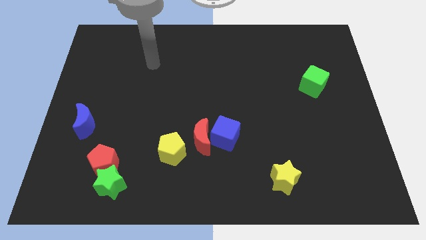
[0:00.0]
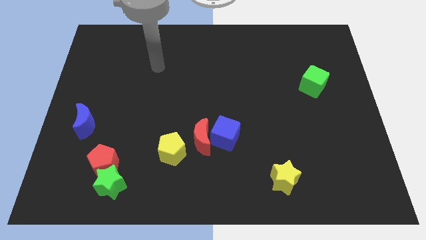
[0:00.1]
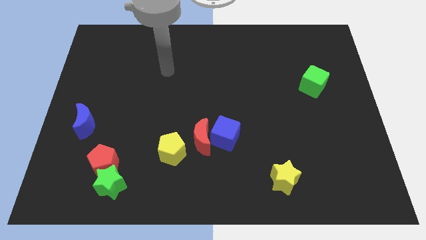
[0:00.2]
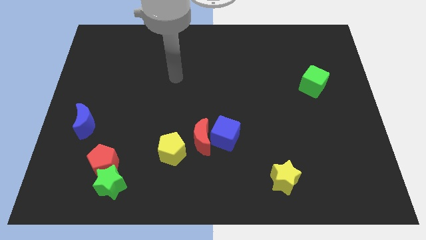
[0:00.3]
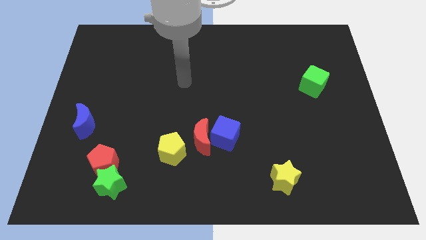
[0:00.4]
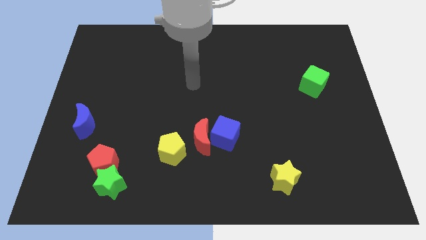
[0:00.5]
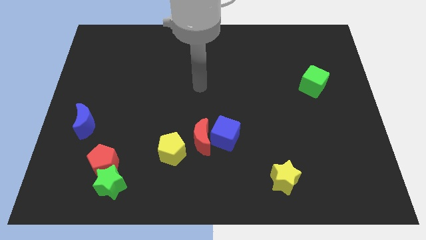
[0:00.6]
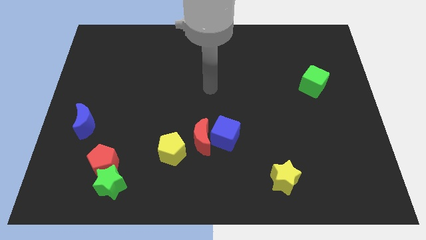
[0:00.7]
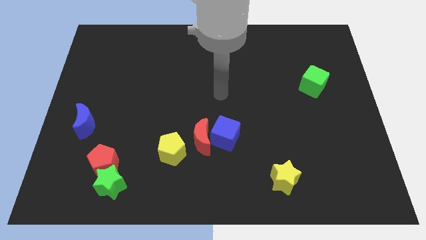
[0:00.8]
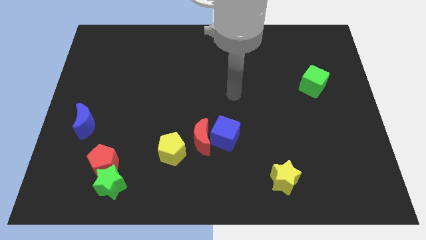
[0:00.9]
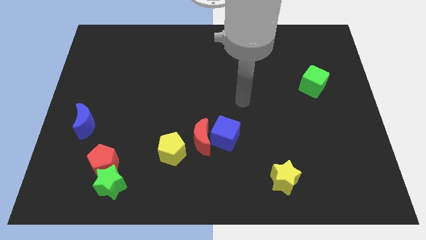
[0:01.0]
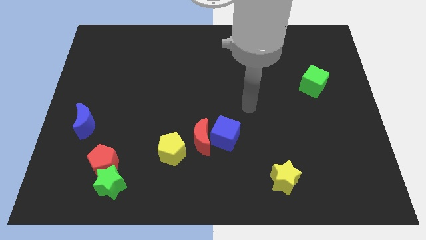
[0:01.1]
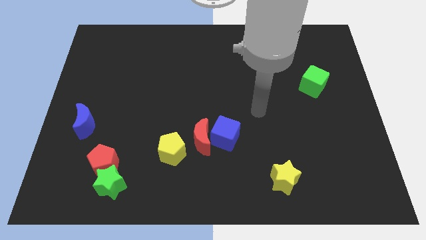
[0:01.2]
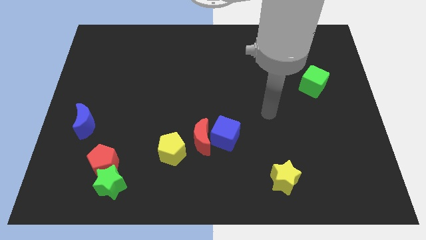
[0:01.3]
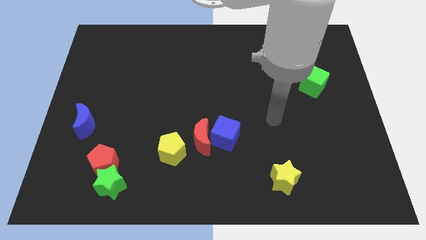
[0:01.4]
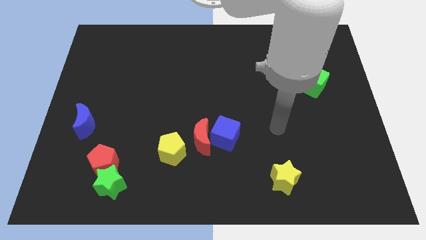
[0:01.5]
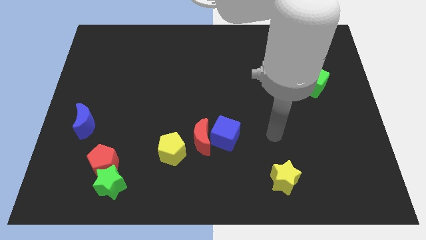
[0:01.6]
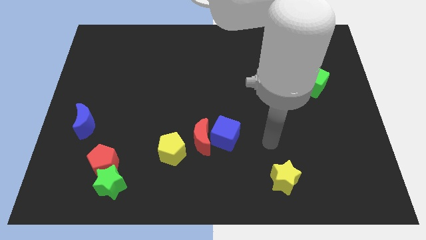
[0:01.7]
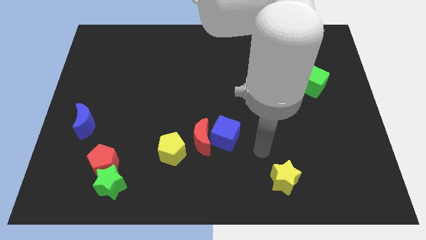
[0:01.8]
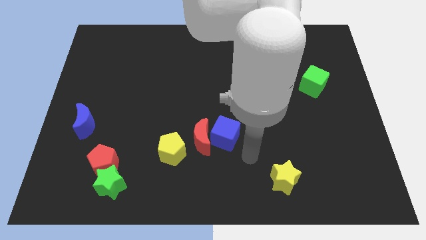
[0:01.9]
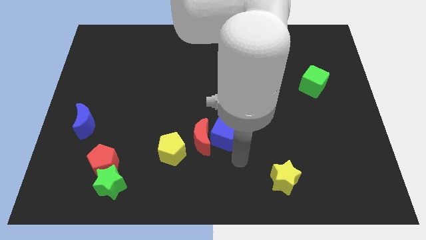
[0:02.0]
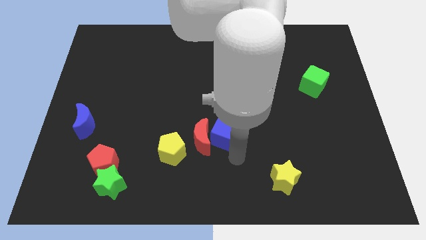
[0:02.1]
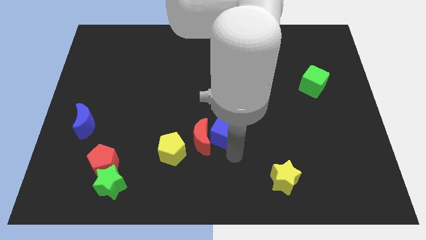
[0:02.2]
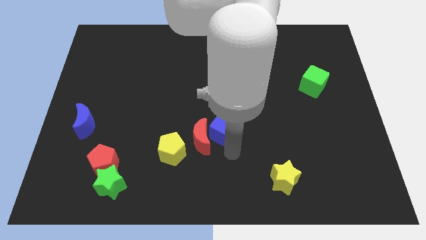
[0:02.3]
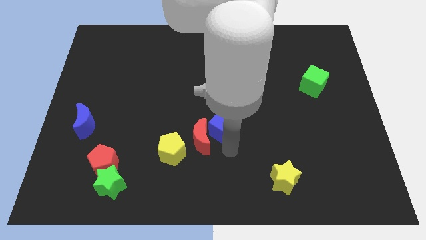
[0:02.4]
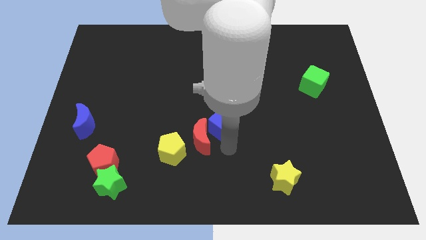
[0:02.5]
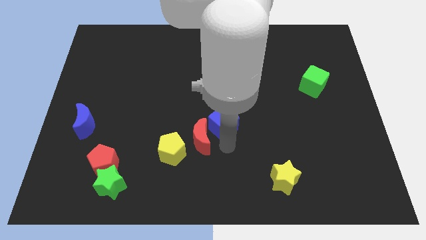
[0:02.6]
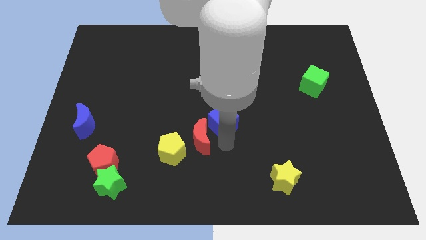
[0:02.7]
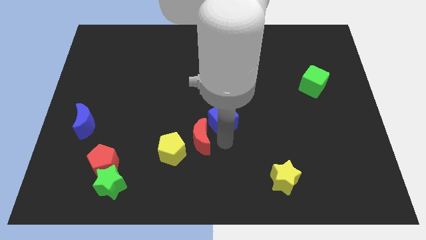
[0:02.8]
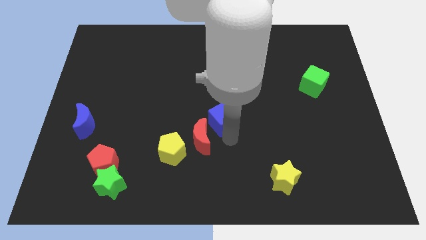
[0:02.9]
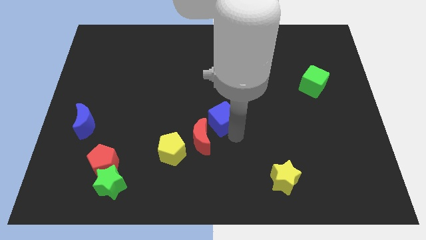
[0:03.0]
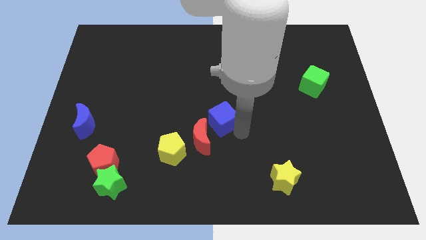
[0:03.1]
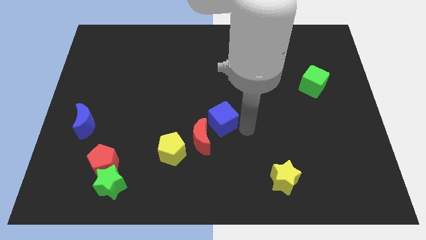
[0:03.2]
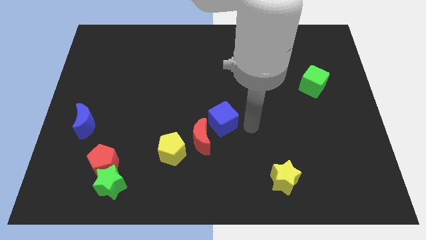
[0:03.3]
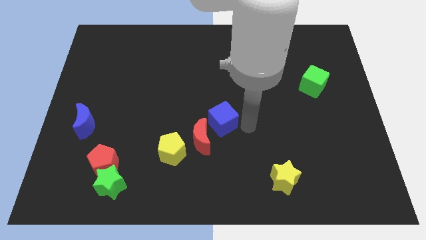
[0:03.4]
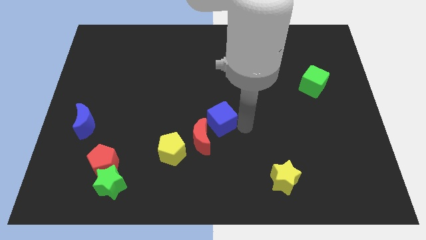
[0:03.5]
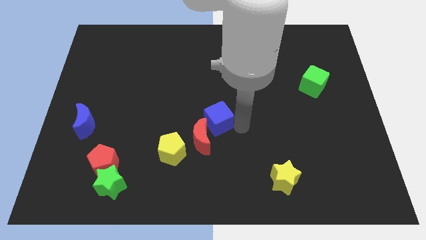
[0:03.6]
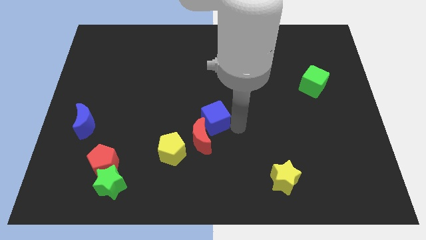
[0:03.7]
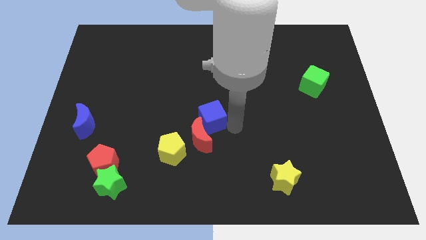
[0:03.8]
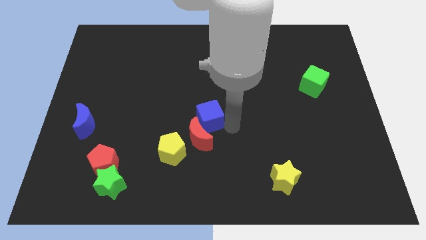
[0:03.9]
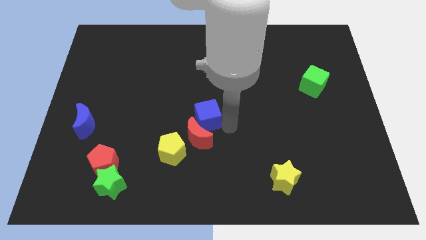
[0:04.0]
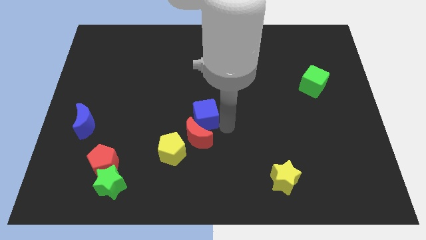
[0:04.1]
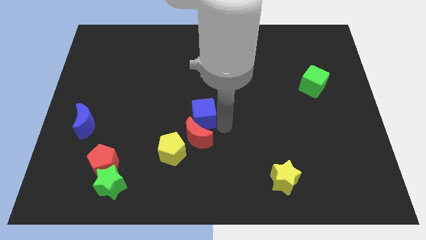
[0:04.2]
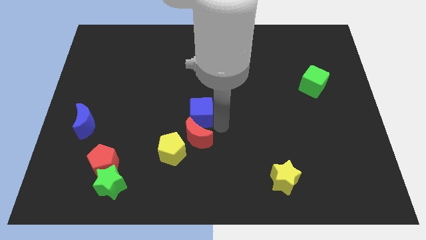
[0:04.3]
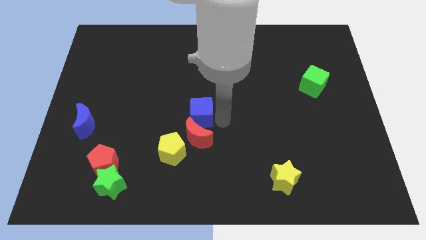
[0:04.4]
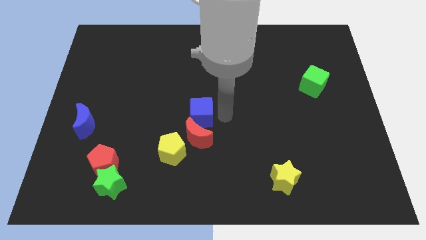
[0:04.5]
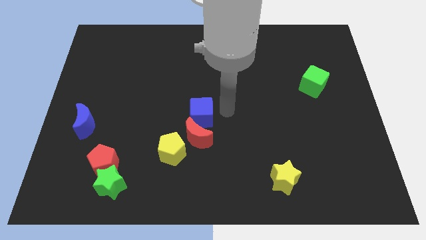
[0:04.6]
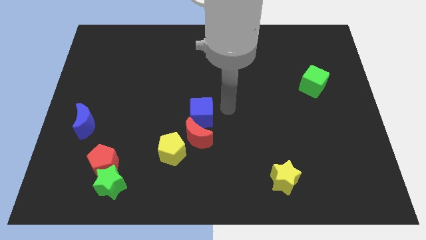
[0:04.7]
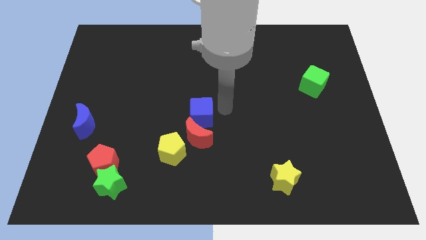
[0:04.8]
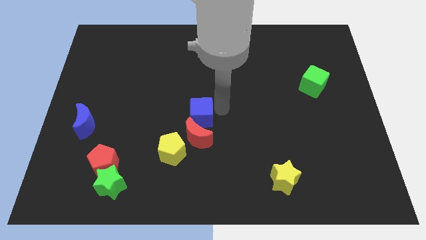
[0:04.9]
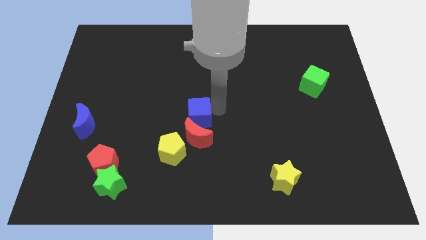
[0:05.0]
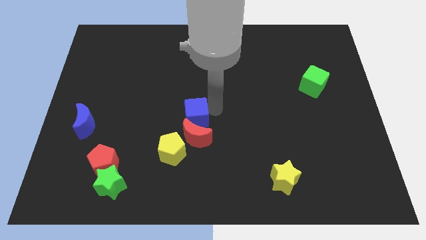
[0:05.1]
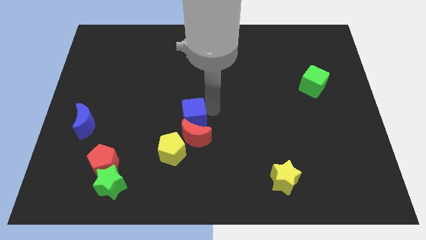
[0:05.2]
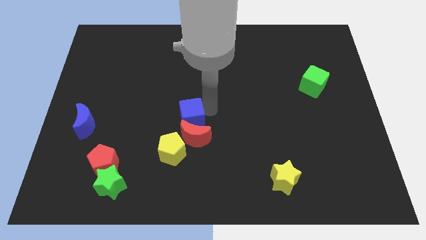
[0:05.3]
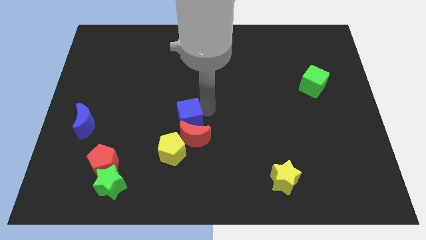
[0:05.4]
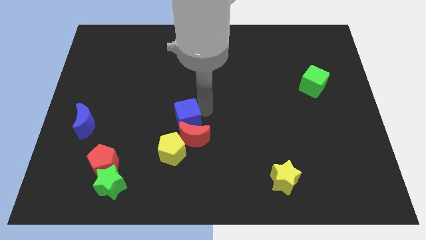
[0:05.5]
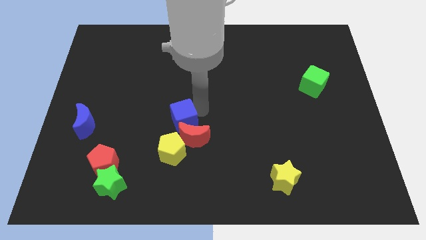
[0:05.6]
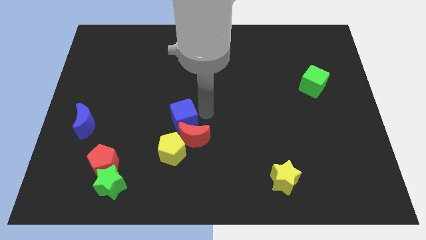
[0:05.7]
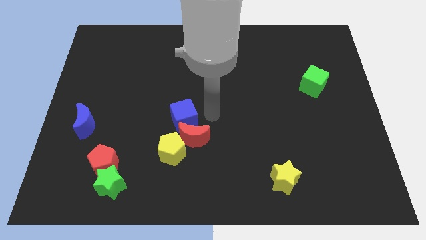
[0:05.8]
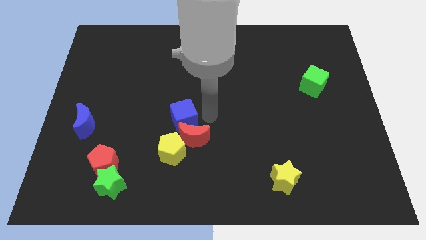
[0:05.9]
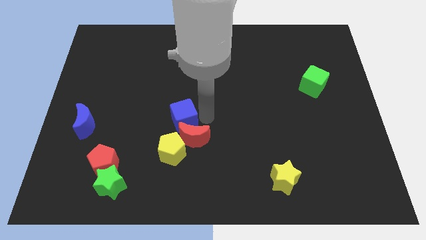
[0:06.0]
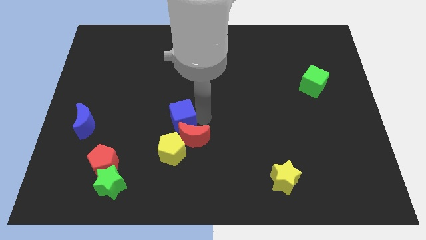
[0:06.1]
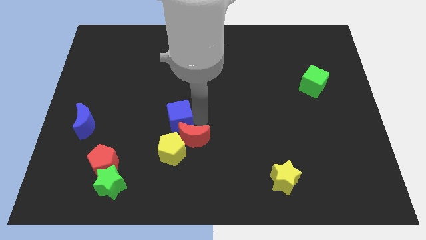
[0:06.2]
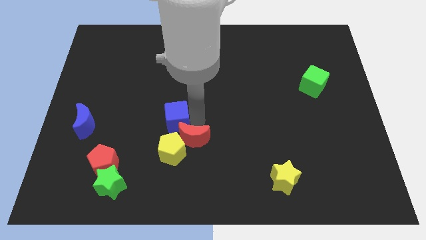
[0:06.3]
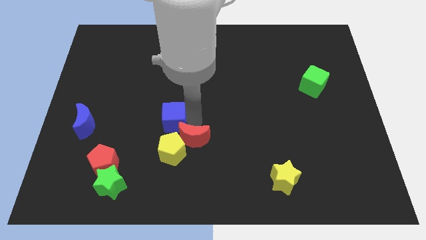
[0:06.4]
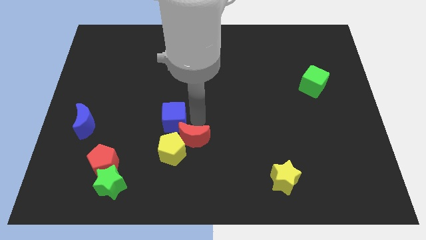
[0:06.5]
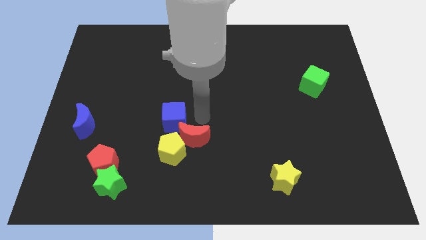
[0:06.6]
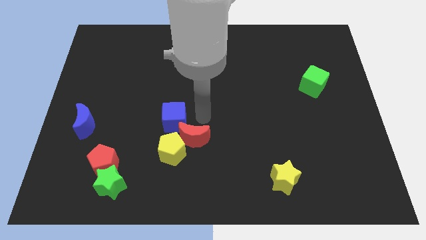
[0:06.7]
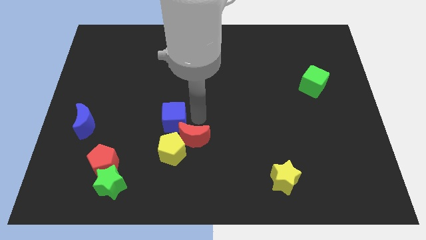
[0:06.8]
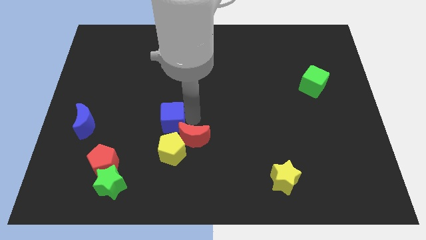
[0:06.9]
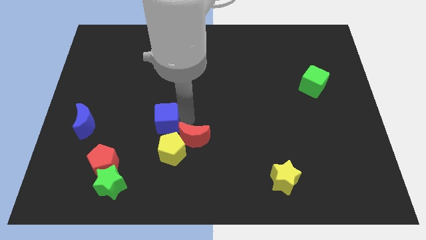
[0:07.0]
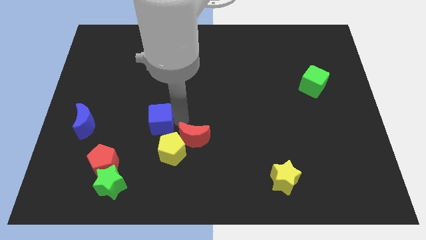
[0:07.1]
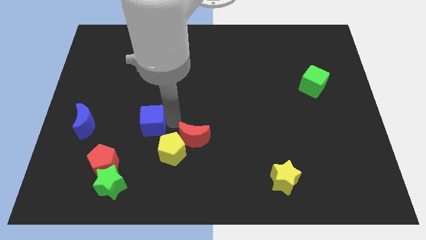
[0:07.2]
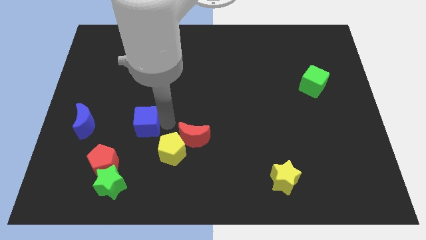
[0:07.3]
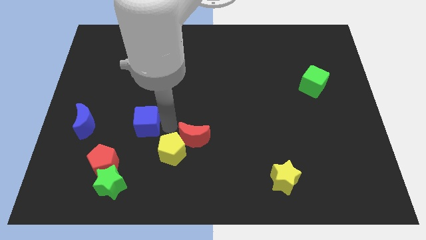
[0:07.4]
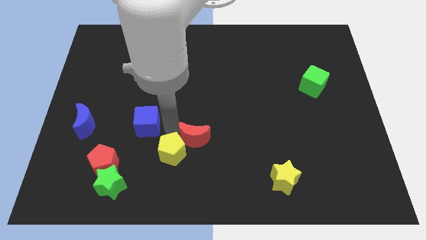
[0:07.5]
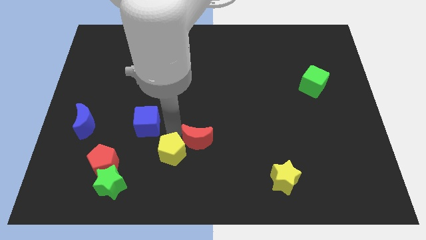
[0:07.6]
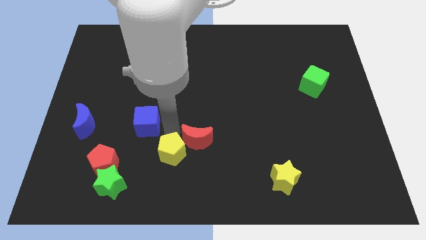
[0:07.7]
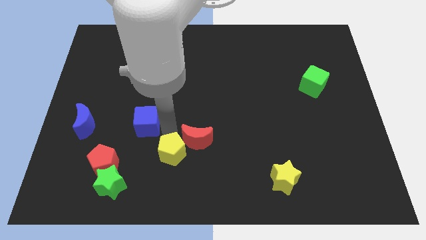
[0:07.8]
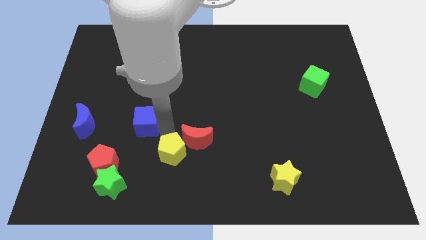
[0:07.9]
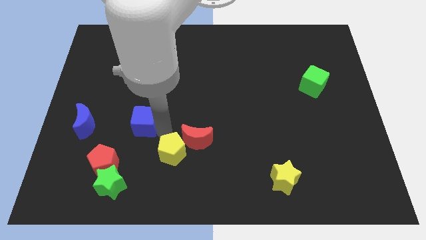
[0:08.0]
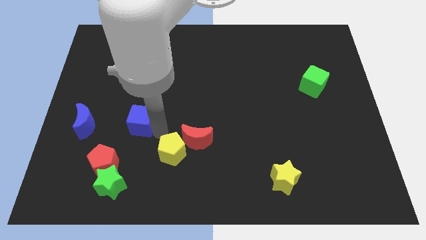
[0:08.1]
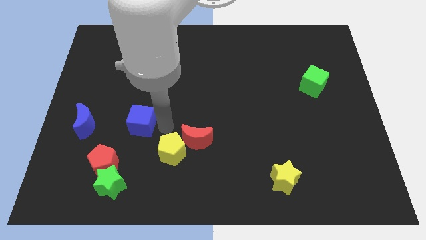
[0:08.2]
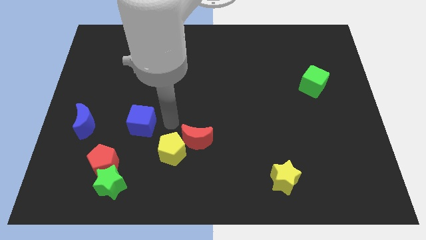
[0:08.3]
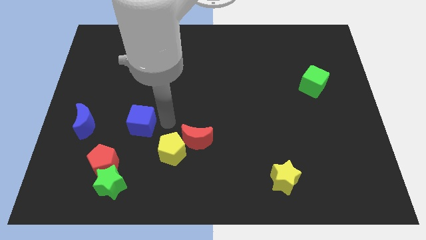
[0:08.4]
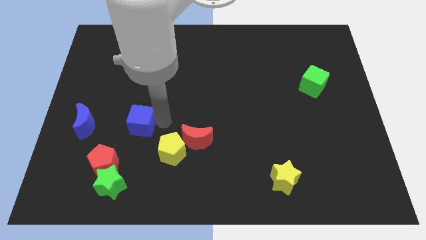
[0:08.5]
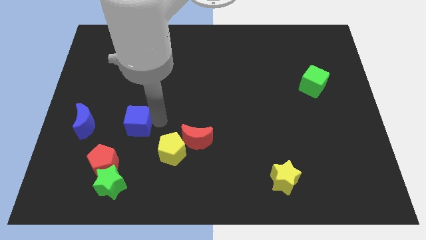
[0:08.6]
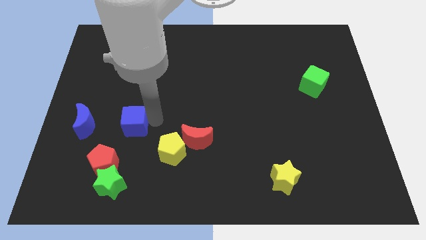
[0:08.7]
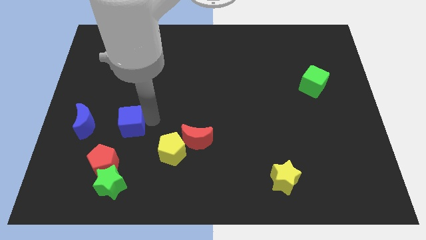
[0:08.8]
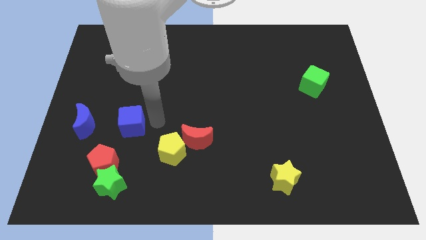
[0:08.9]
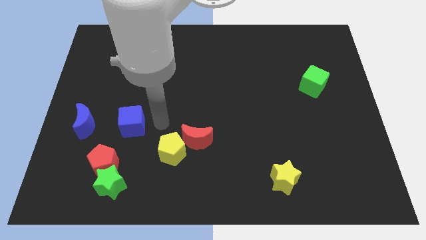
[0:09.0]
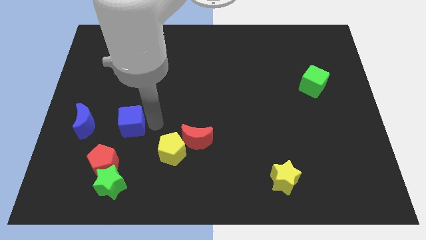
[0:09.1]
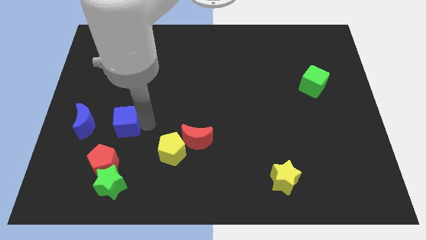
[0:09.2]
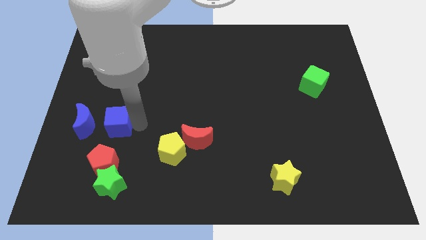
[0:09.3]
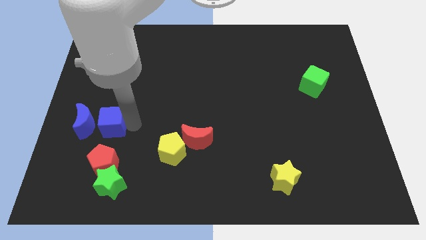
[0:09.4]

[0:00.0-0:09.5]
push the blue cube to the blue moon
